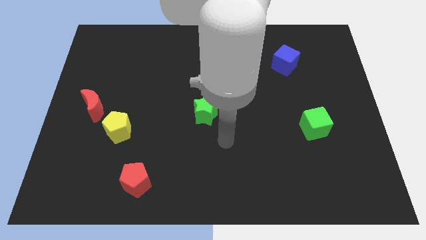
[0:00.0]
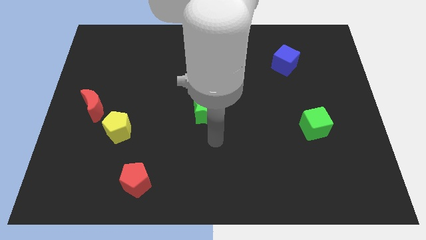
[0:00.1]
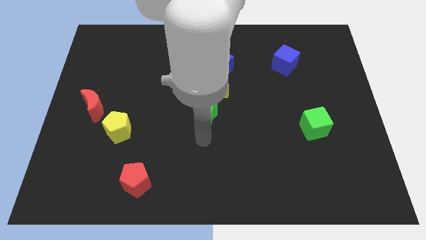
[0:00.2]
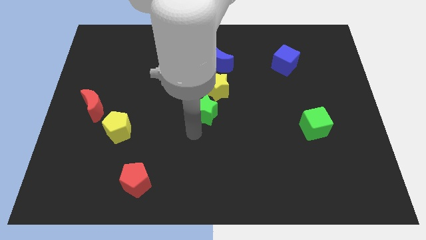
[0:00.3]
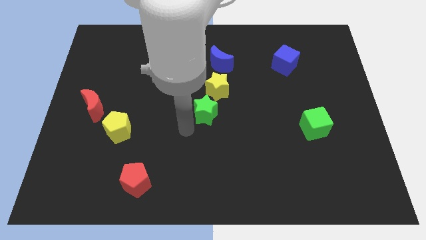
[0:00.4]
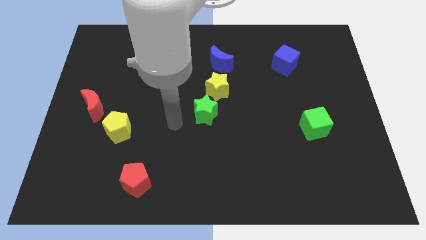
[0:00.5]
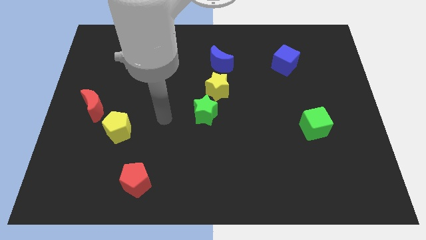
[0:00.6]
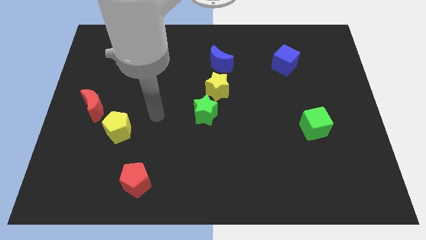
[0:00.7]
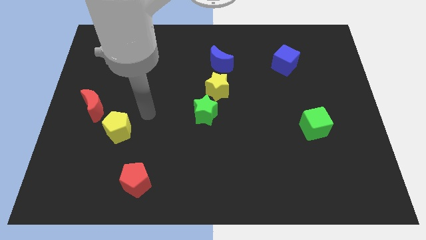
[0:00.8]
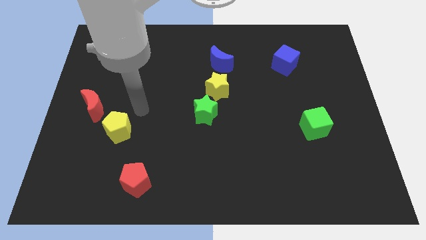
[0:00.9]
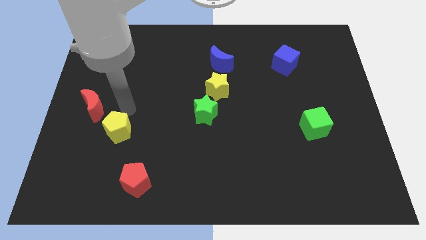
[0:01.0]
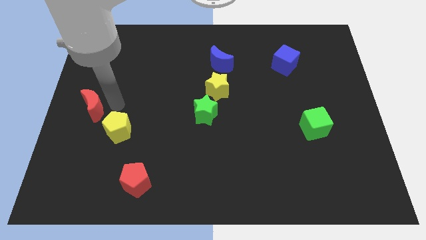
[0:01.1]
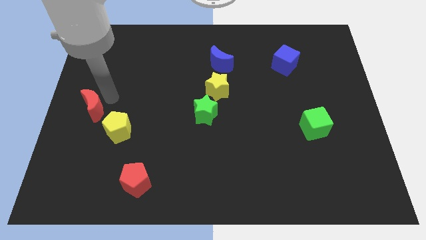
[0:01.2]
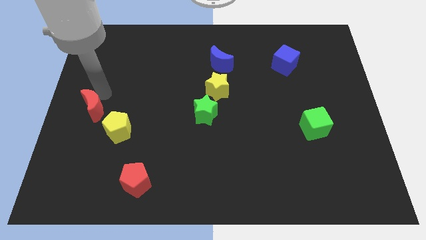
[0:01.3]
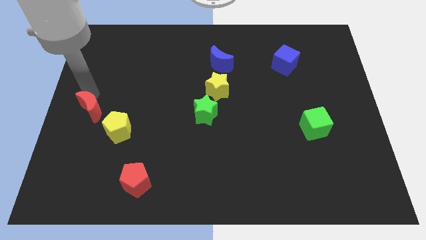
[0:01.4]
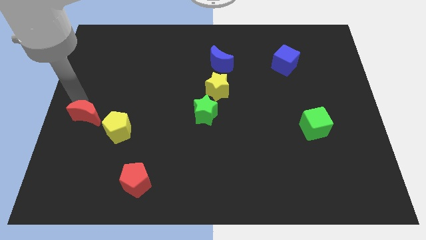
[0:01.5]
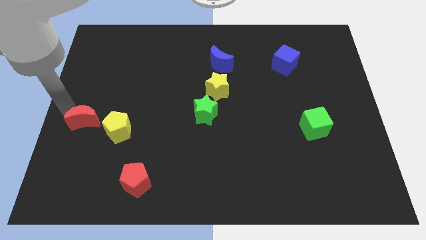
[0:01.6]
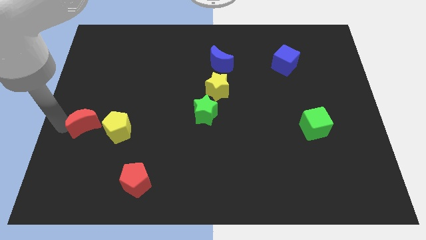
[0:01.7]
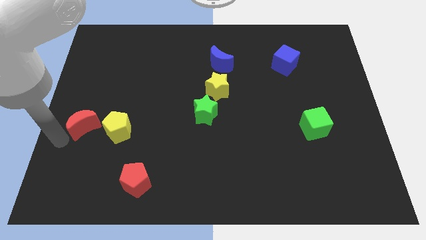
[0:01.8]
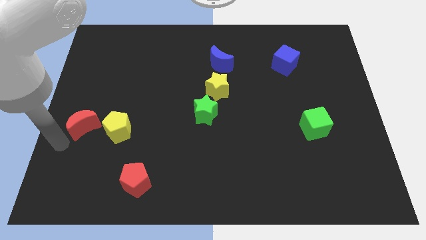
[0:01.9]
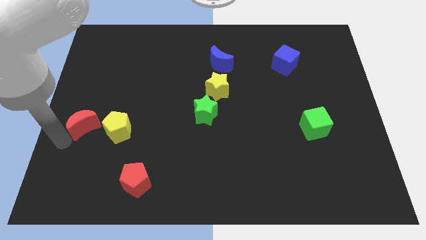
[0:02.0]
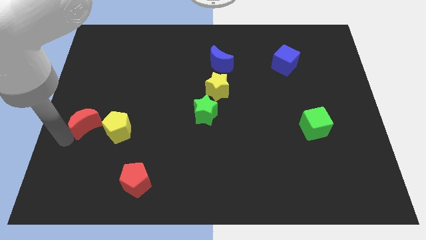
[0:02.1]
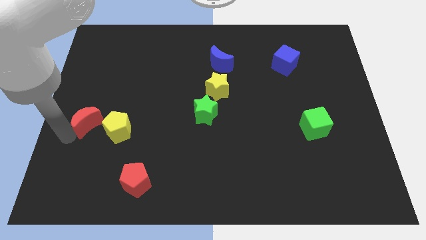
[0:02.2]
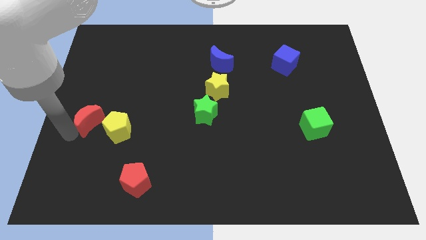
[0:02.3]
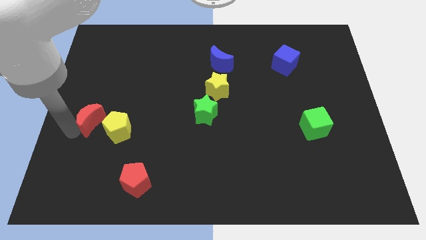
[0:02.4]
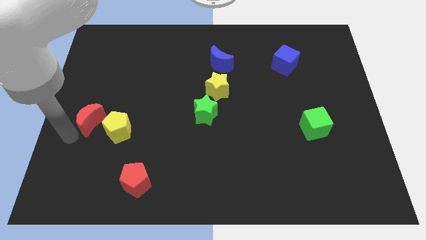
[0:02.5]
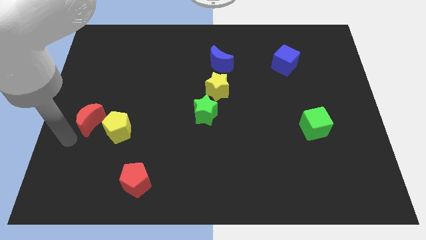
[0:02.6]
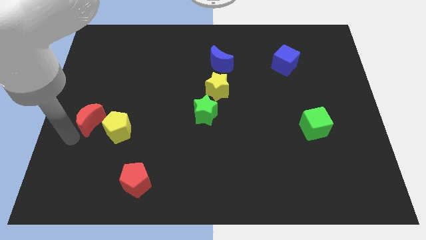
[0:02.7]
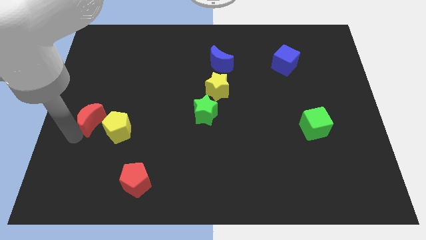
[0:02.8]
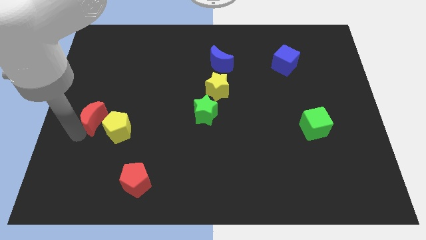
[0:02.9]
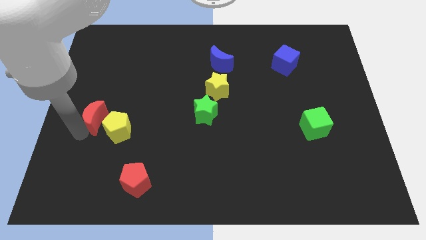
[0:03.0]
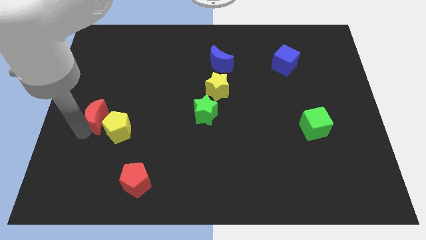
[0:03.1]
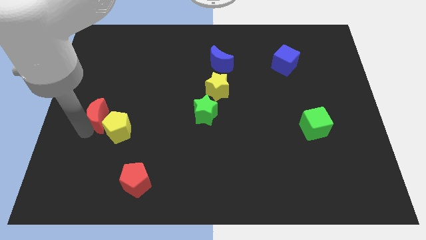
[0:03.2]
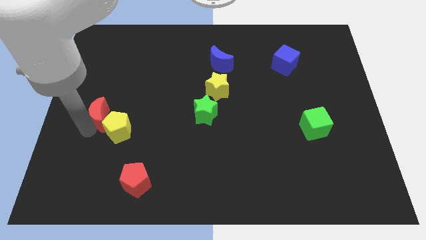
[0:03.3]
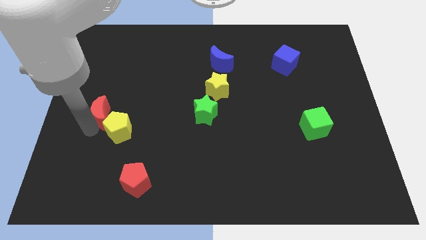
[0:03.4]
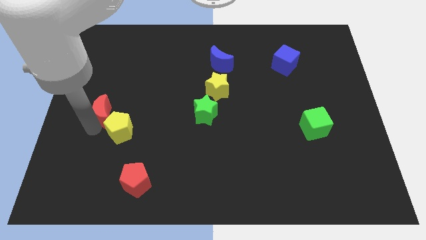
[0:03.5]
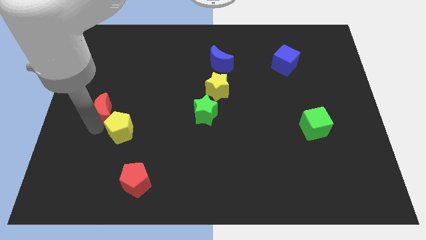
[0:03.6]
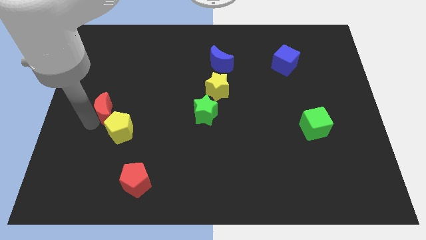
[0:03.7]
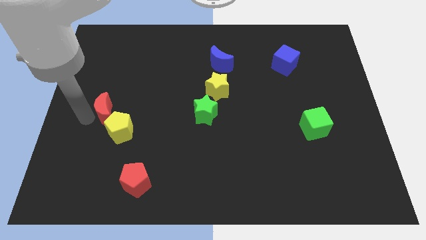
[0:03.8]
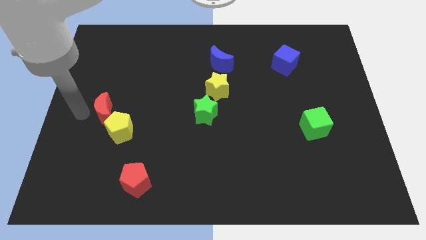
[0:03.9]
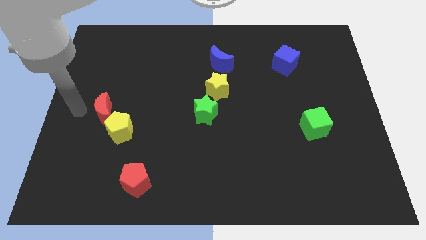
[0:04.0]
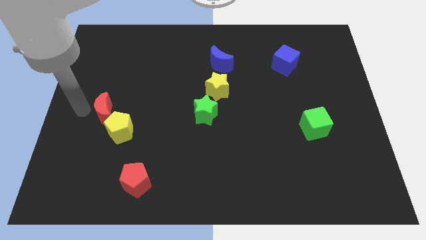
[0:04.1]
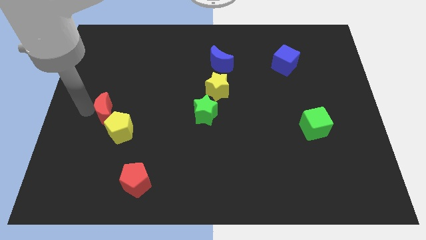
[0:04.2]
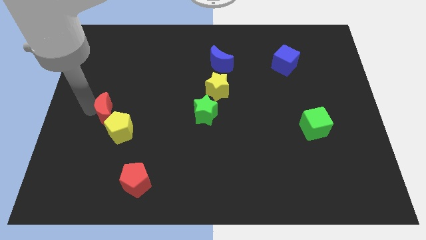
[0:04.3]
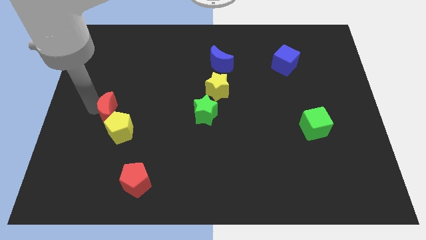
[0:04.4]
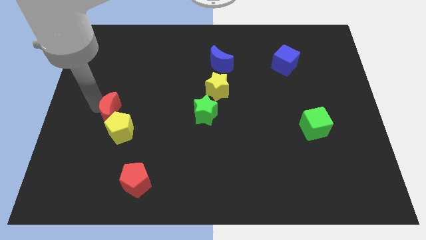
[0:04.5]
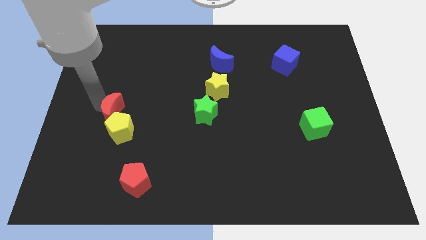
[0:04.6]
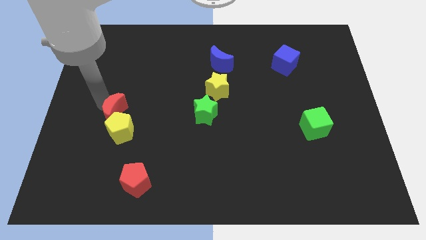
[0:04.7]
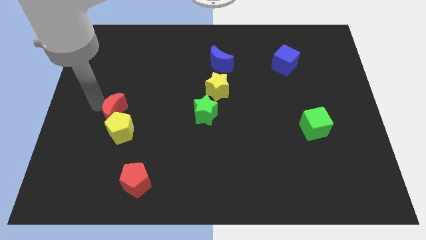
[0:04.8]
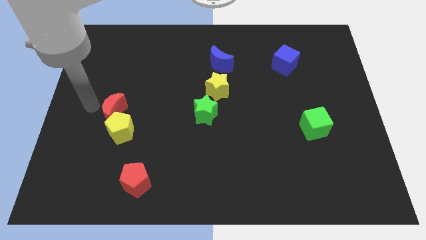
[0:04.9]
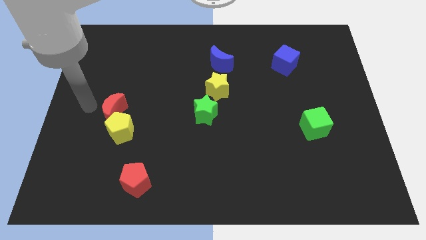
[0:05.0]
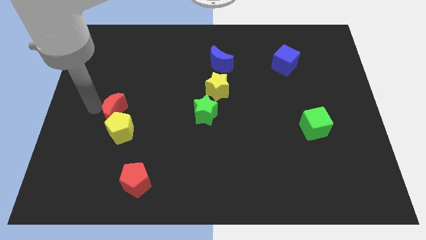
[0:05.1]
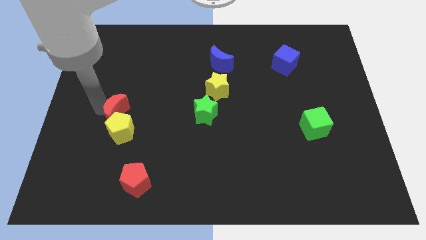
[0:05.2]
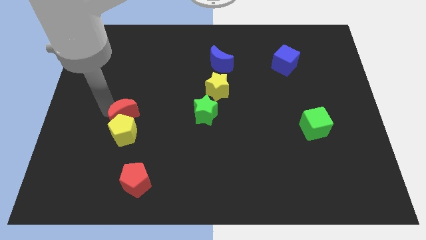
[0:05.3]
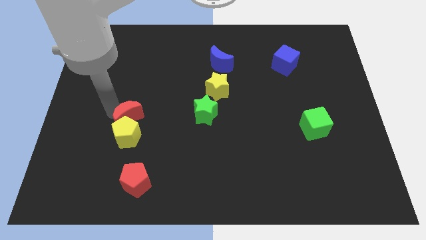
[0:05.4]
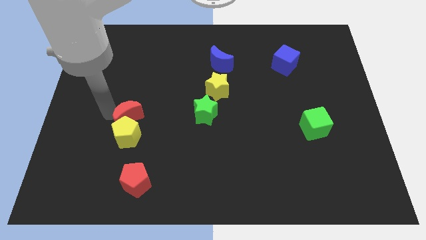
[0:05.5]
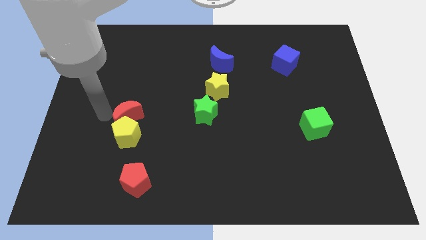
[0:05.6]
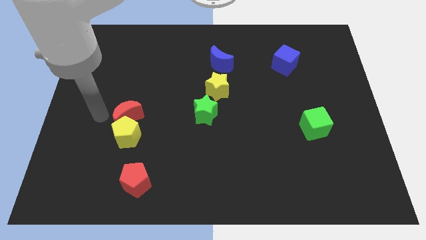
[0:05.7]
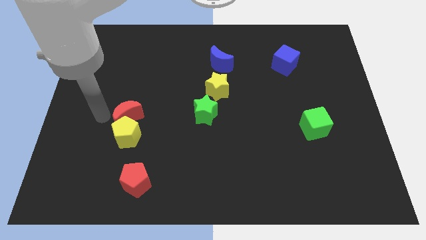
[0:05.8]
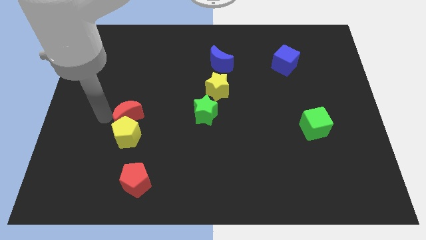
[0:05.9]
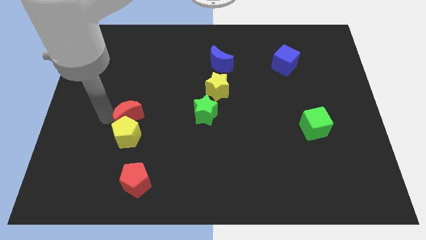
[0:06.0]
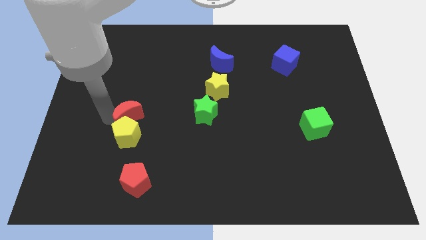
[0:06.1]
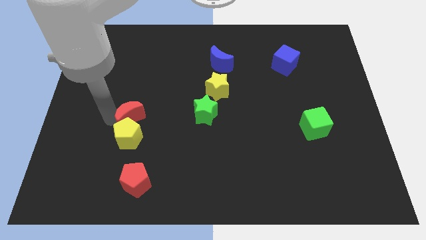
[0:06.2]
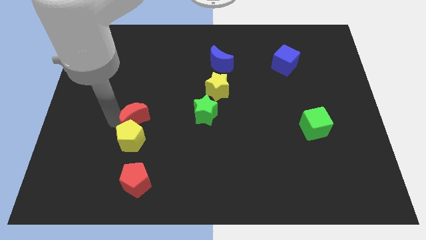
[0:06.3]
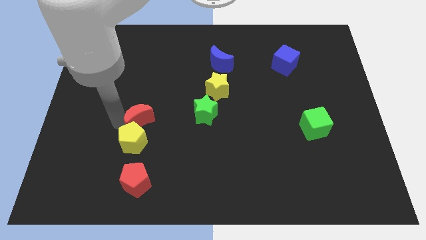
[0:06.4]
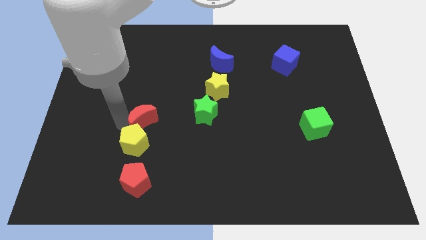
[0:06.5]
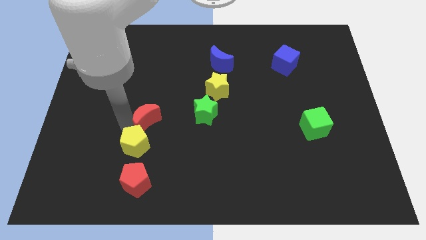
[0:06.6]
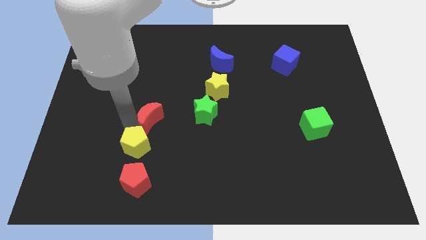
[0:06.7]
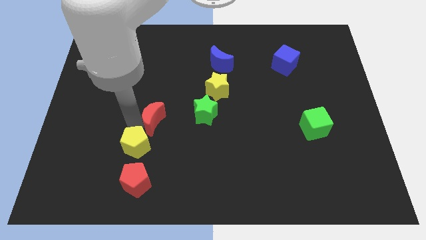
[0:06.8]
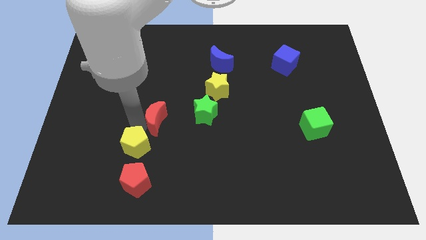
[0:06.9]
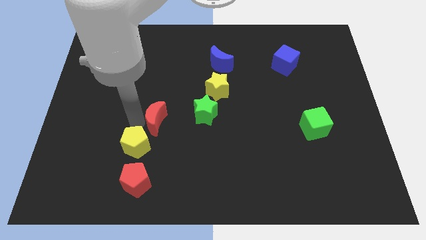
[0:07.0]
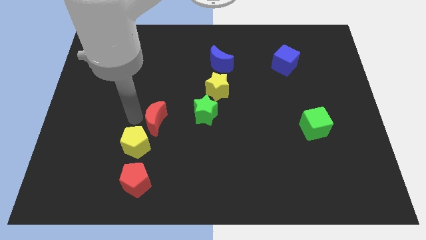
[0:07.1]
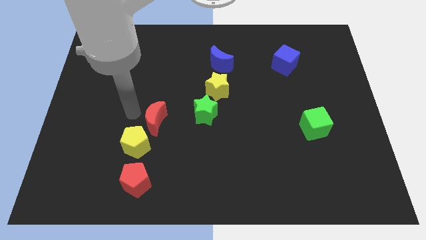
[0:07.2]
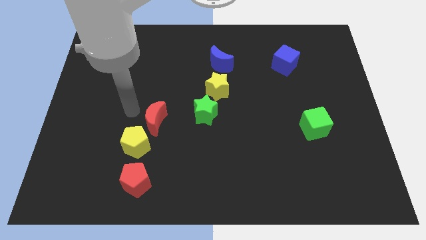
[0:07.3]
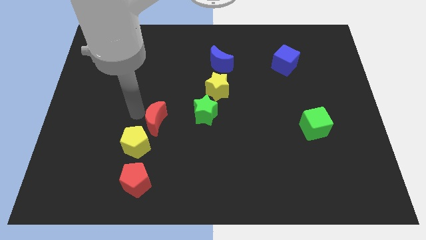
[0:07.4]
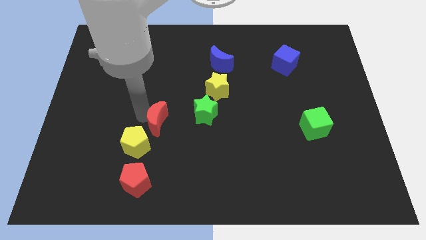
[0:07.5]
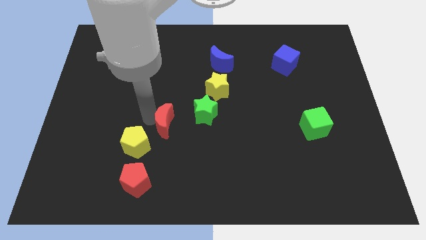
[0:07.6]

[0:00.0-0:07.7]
move the red moon to the bottom left of the green star

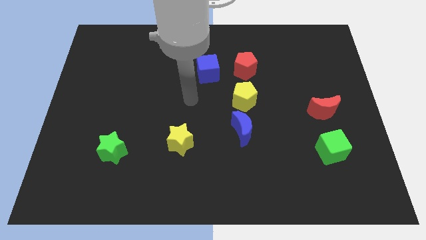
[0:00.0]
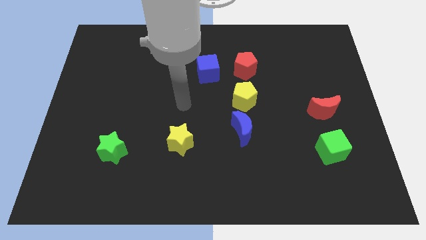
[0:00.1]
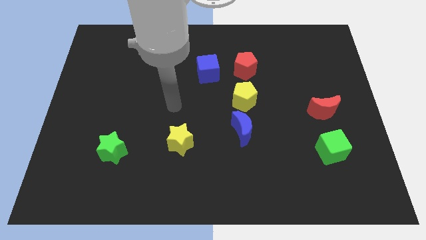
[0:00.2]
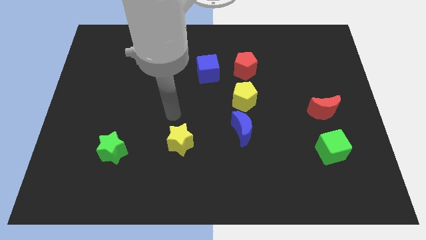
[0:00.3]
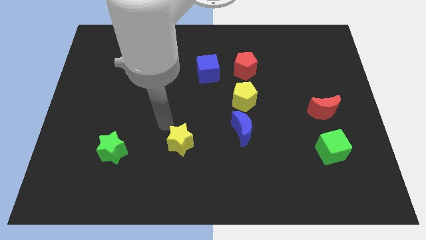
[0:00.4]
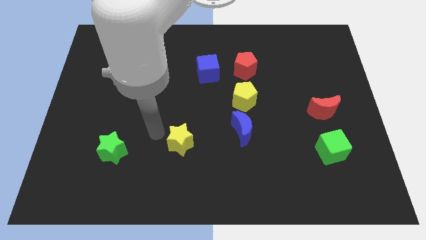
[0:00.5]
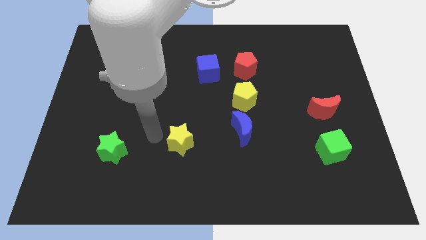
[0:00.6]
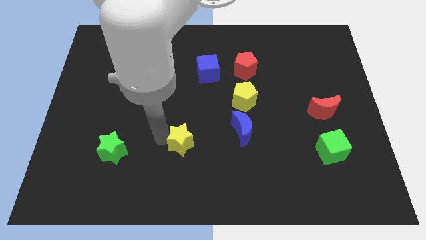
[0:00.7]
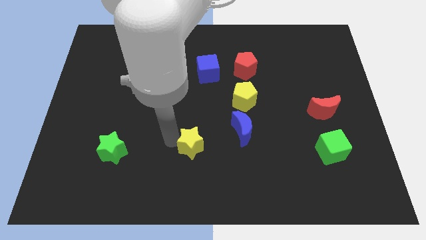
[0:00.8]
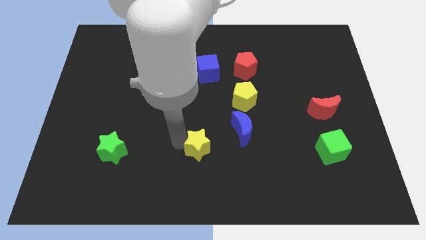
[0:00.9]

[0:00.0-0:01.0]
put the yellow star diagonally down and to the left of the blue moon
